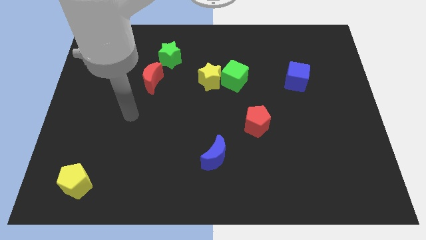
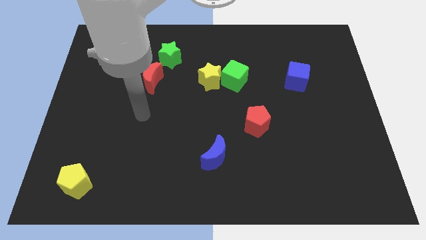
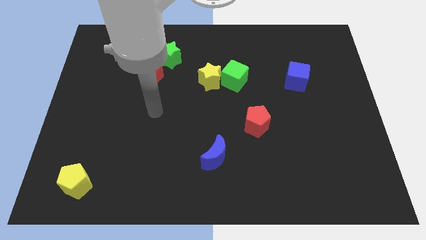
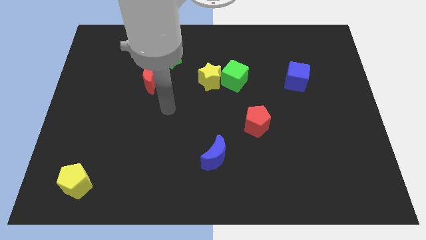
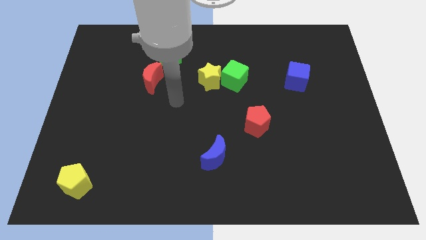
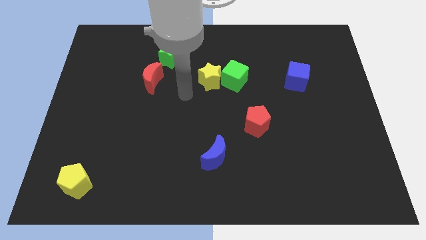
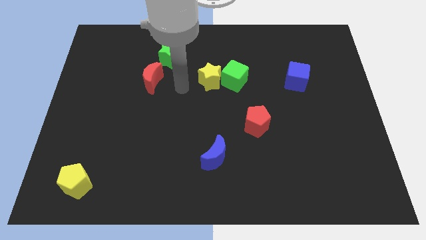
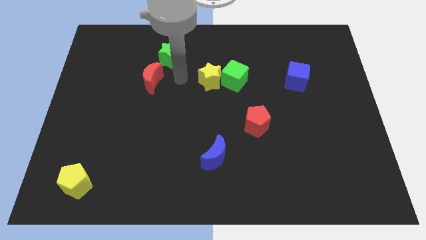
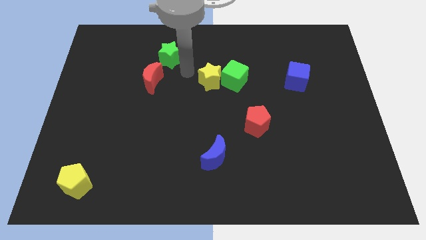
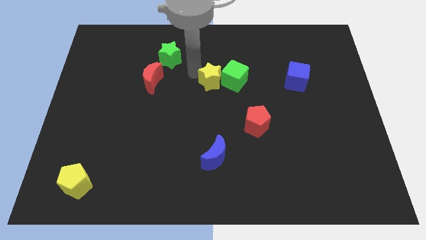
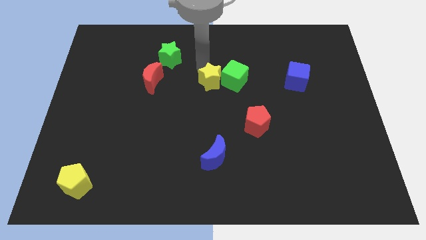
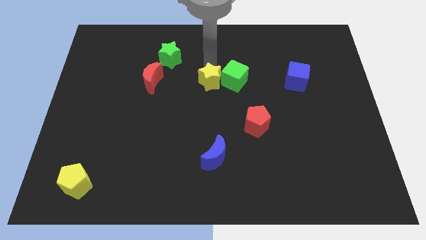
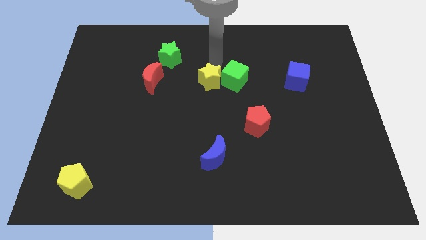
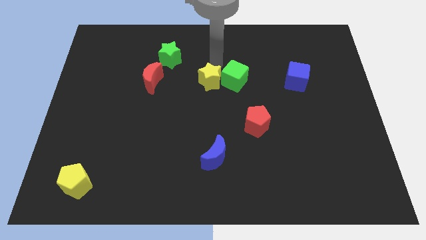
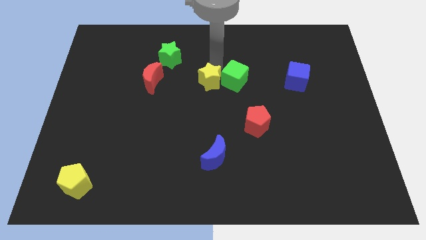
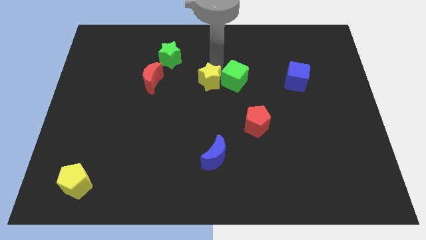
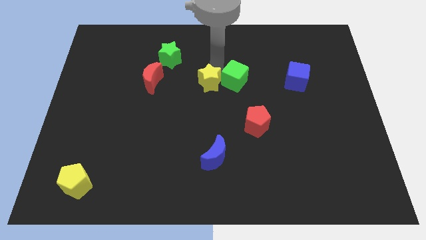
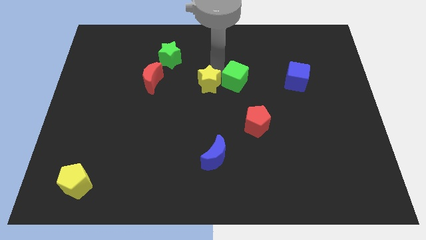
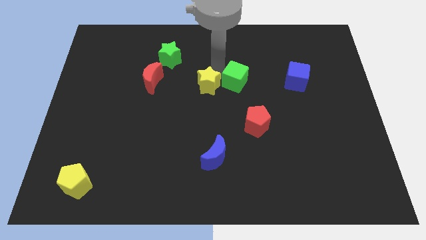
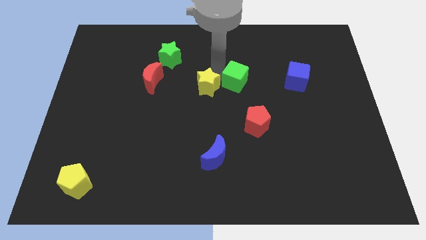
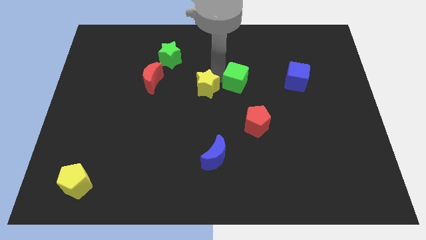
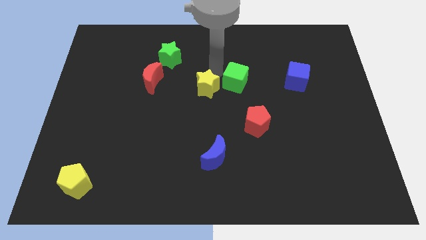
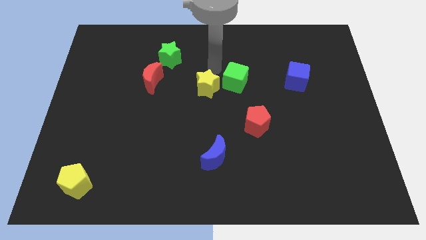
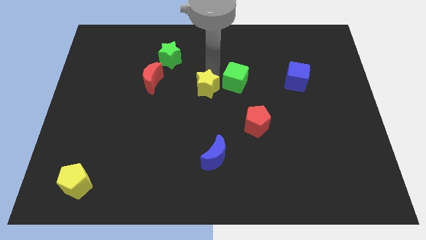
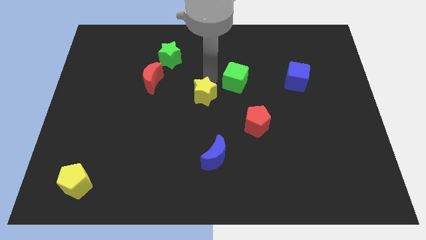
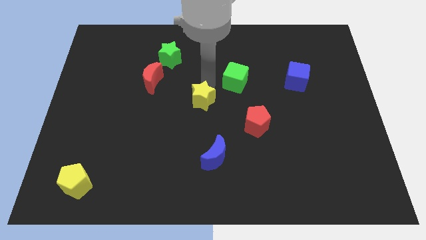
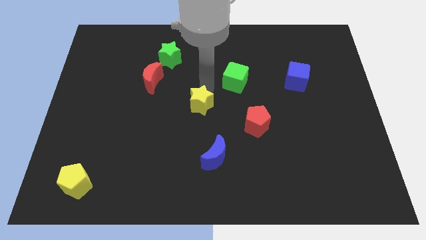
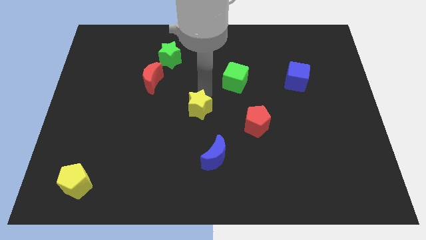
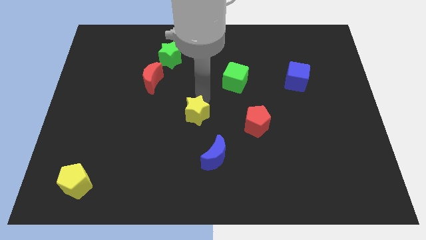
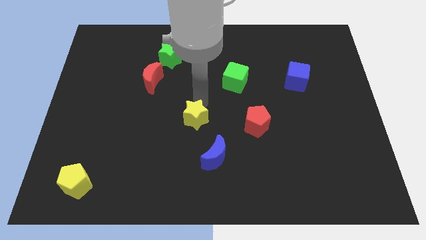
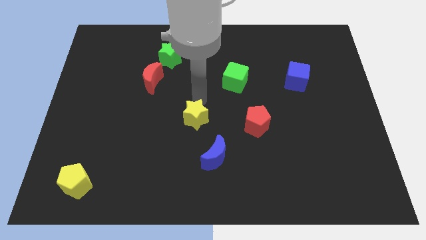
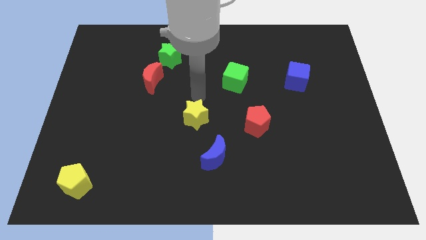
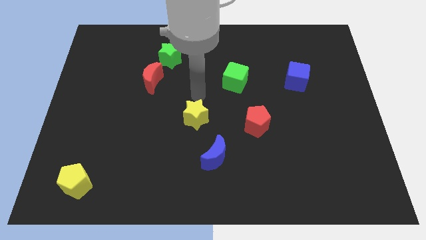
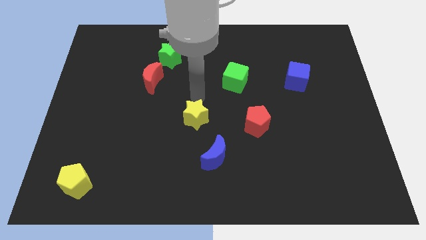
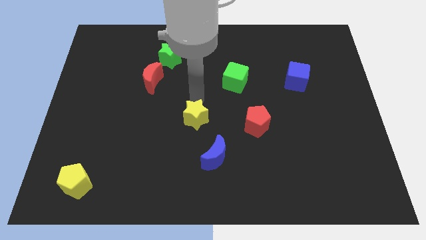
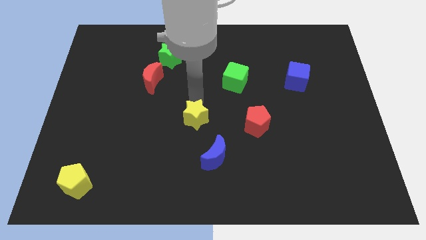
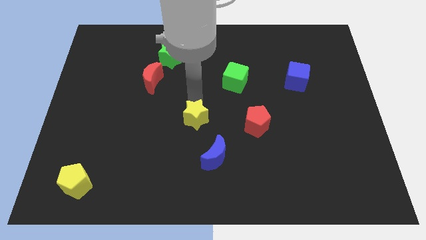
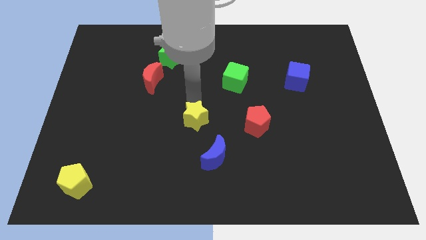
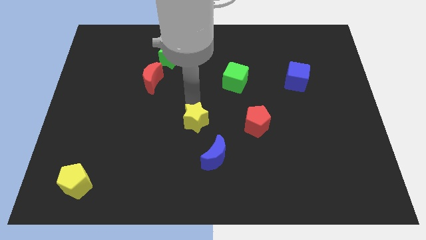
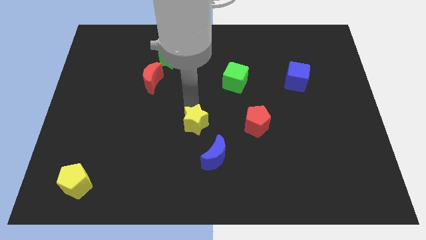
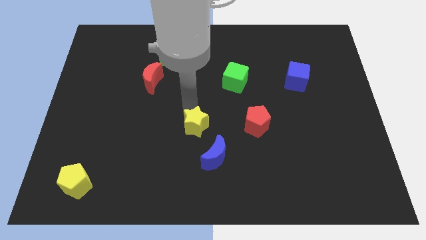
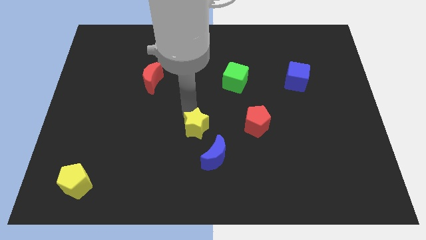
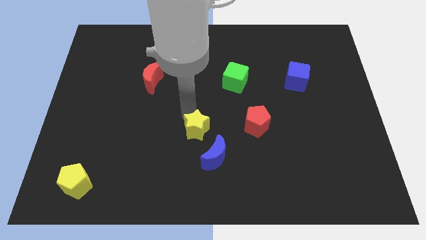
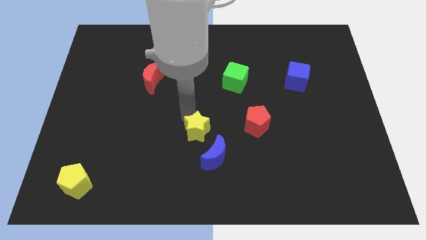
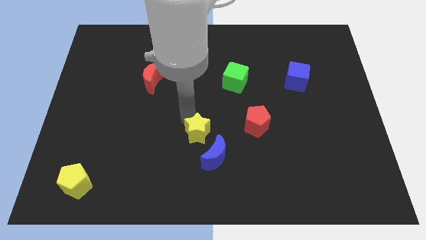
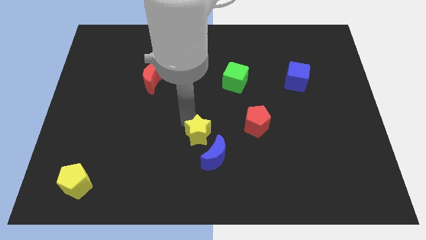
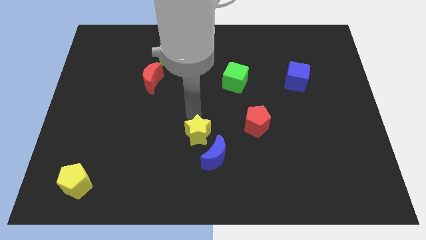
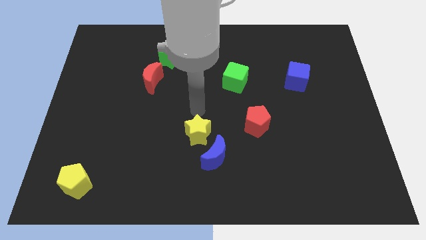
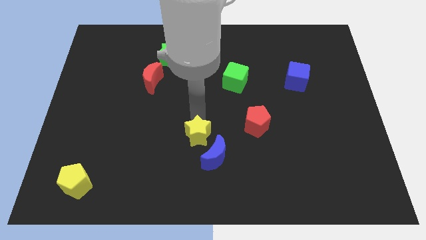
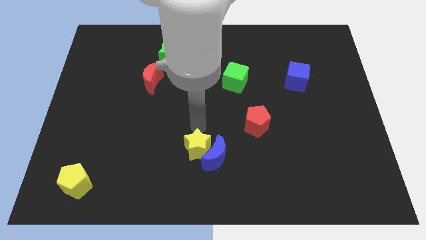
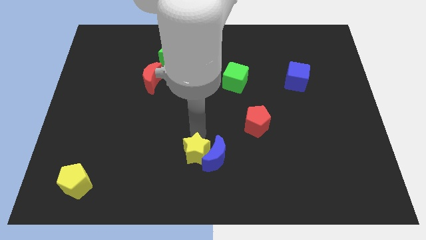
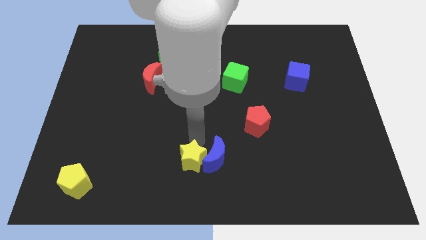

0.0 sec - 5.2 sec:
move the yellow star to the bottom side

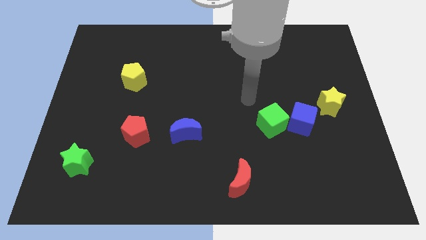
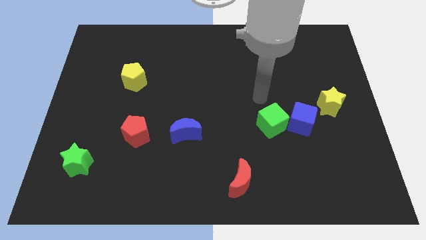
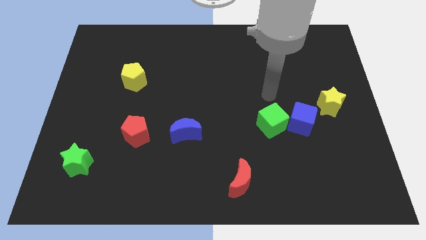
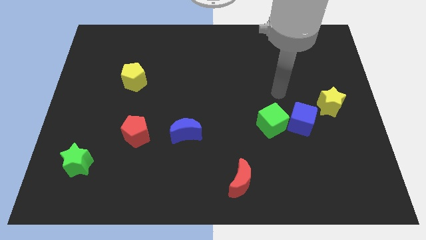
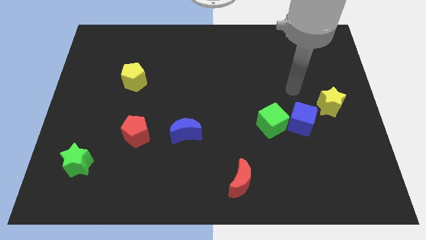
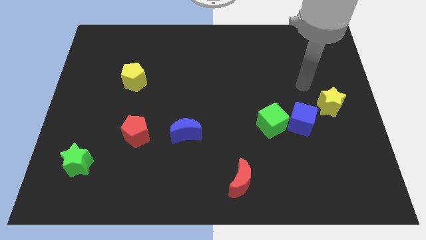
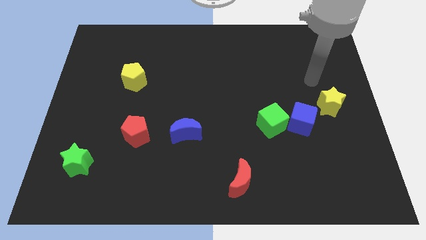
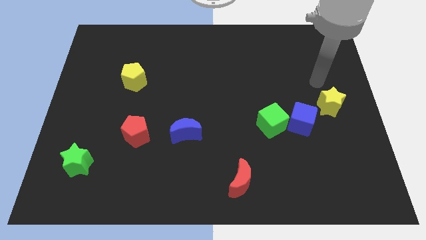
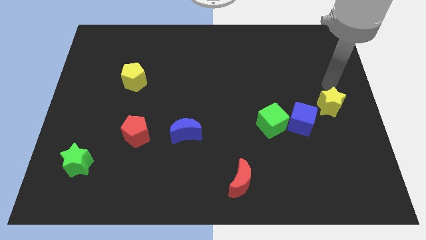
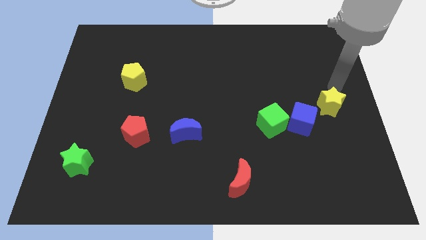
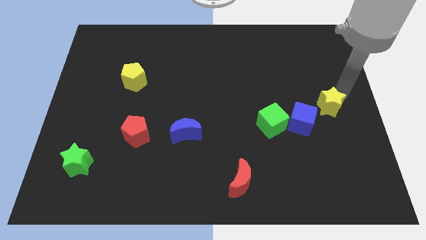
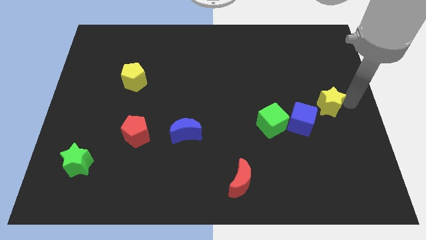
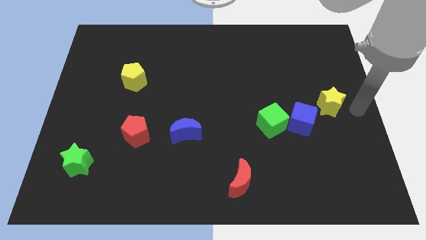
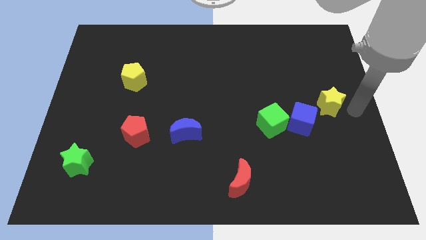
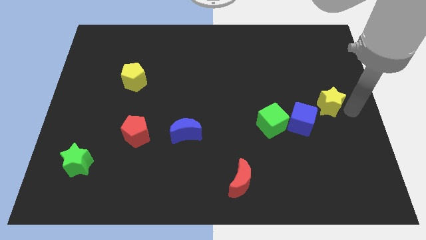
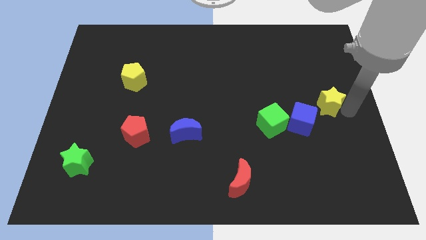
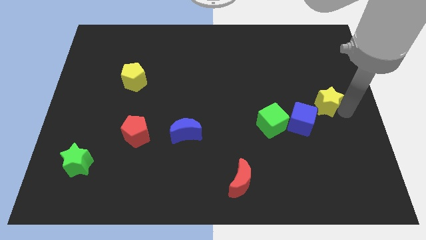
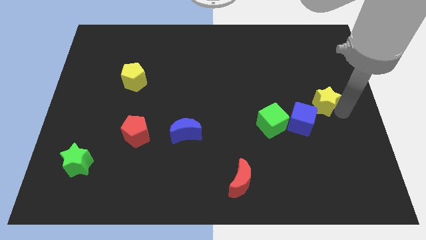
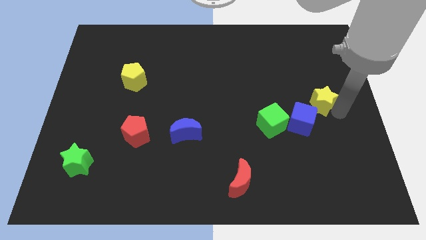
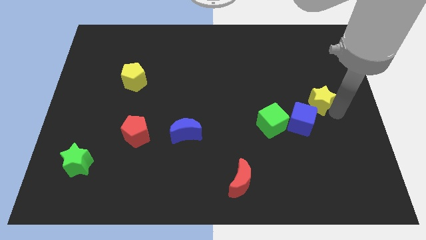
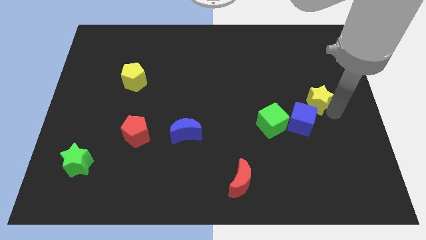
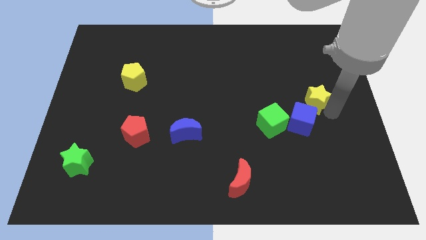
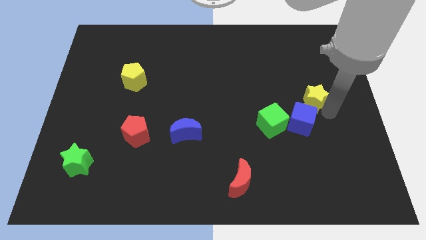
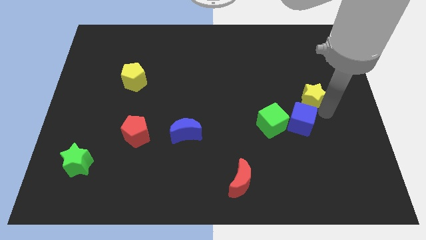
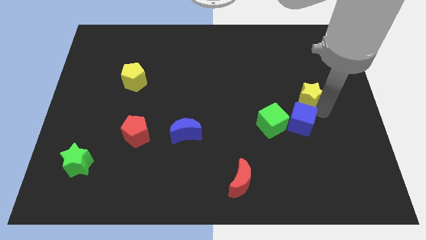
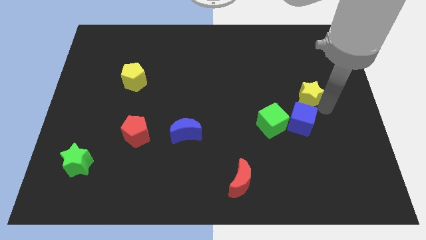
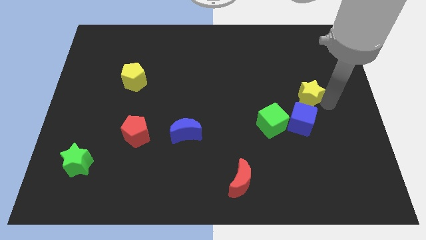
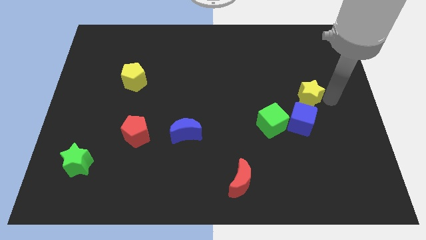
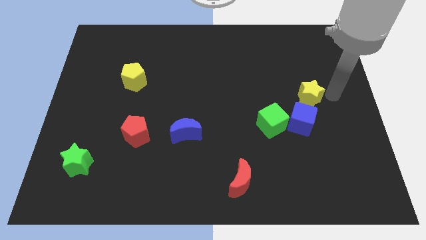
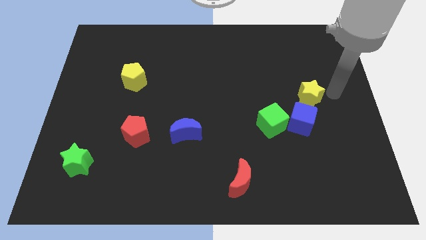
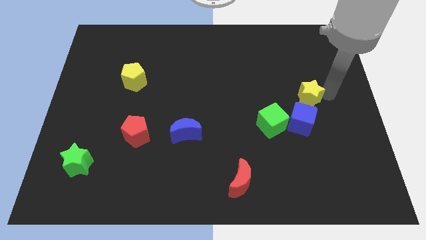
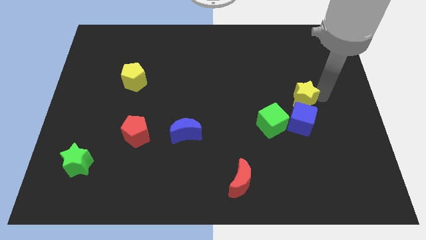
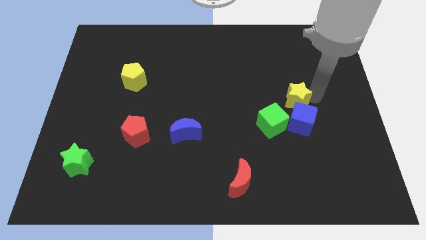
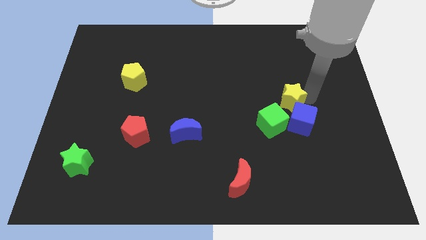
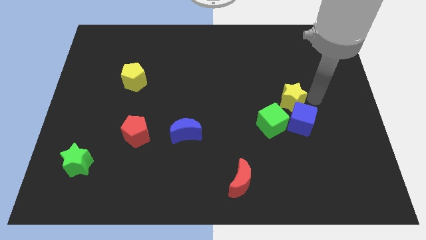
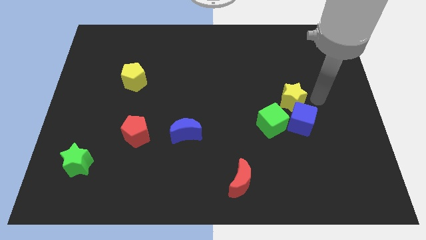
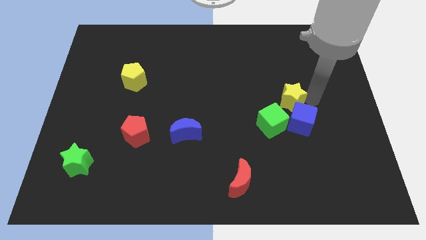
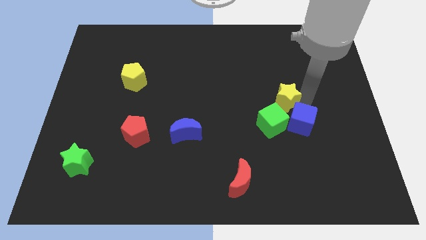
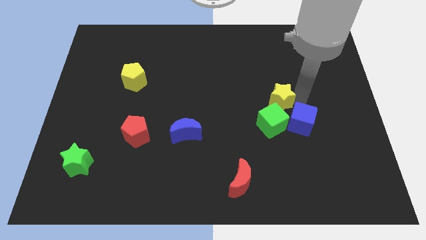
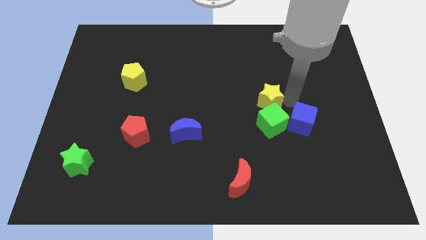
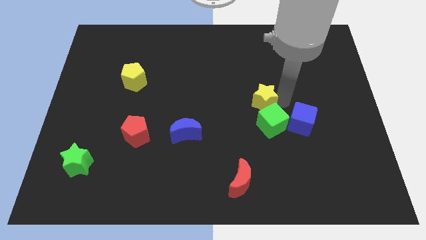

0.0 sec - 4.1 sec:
move the yellow star to the middle
